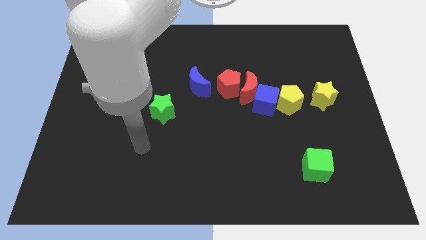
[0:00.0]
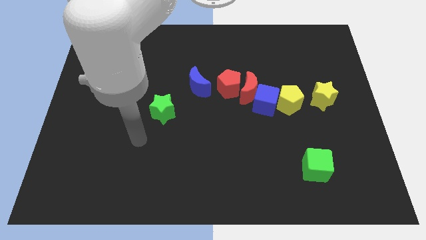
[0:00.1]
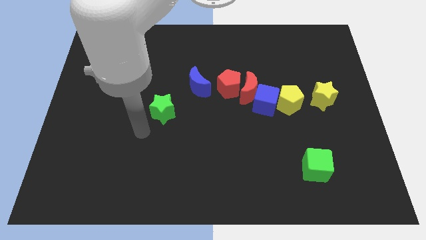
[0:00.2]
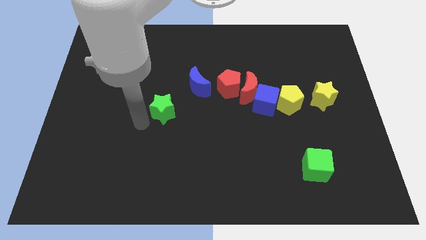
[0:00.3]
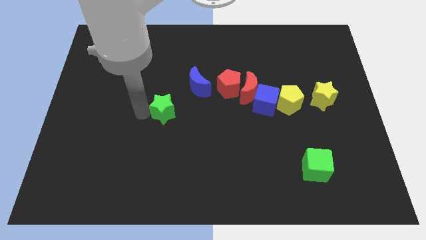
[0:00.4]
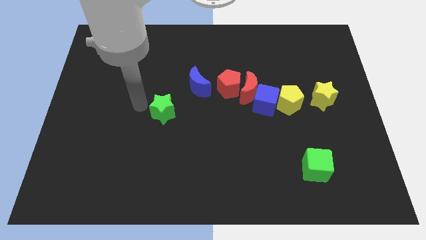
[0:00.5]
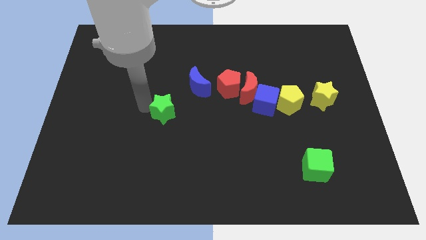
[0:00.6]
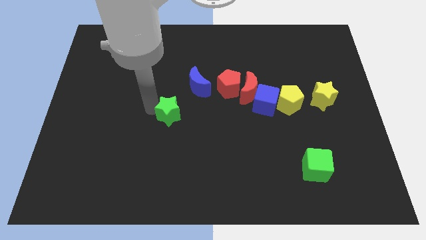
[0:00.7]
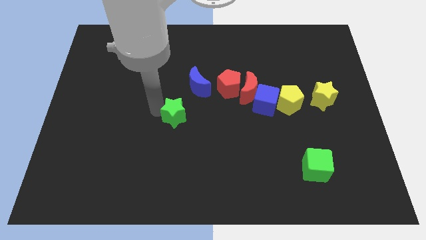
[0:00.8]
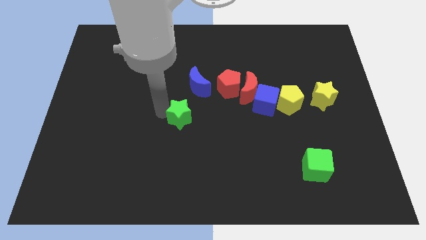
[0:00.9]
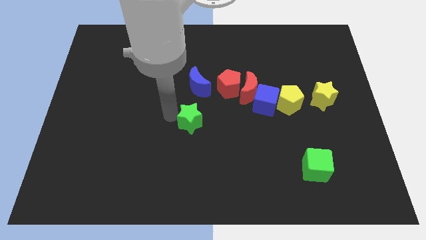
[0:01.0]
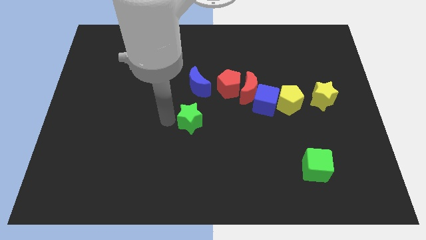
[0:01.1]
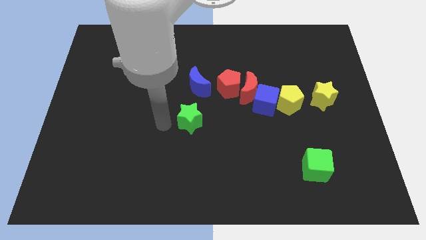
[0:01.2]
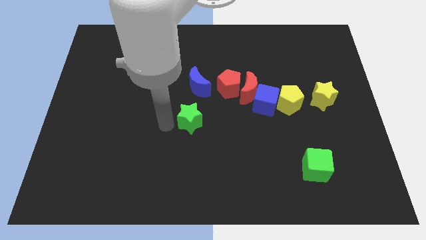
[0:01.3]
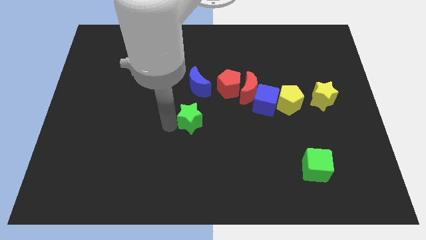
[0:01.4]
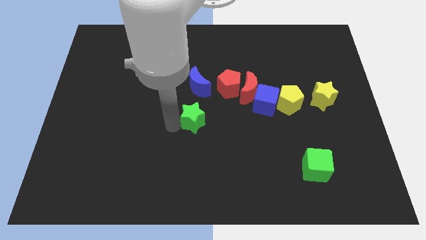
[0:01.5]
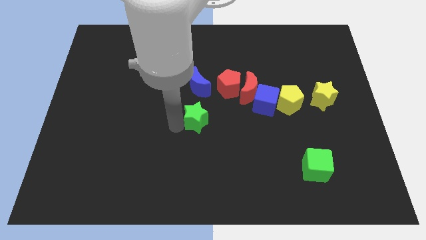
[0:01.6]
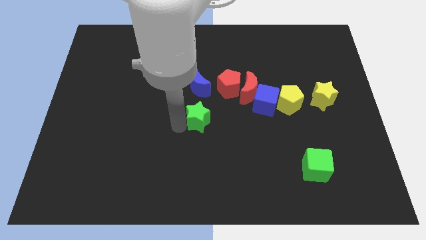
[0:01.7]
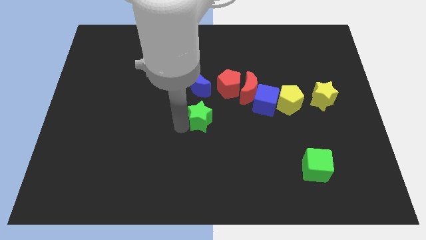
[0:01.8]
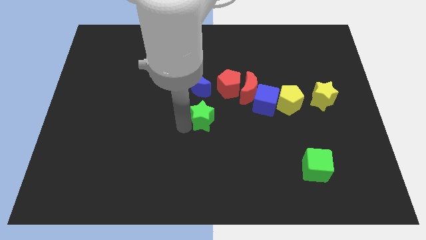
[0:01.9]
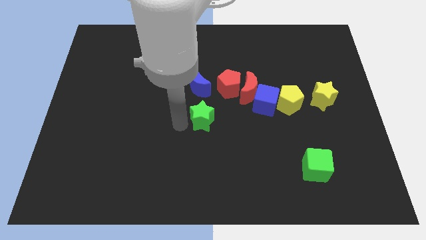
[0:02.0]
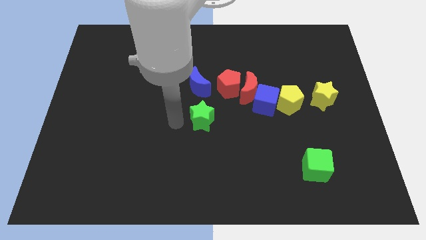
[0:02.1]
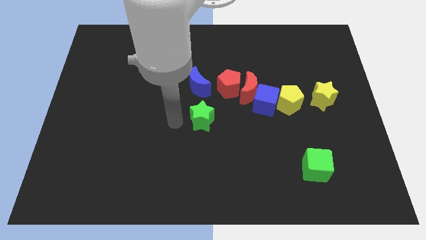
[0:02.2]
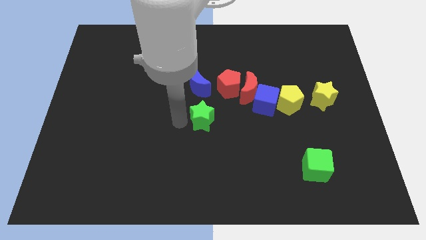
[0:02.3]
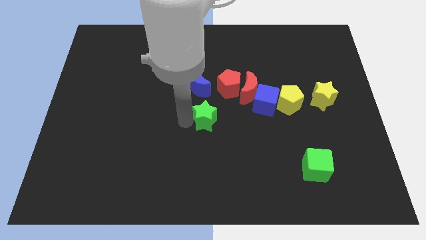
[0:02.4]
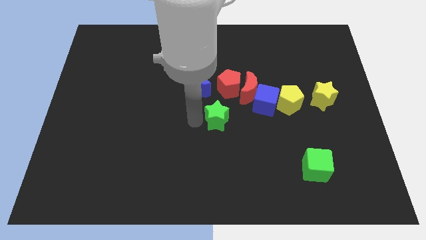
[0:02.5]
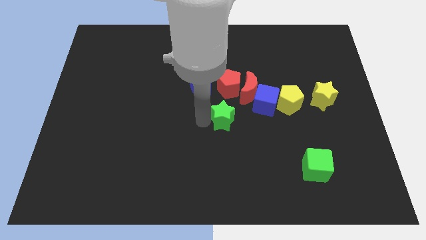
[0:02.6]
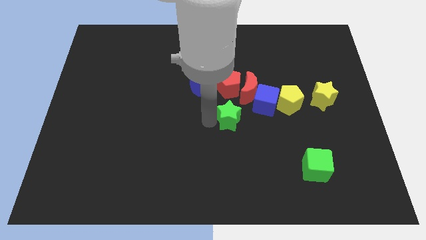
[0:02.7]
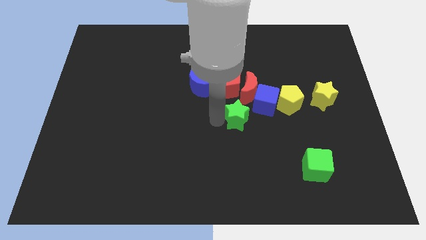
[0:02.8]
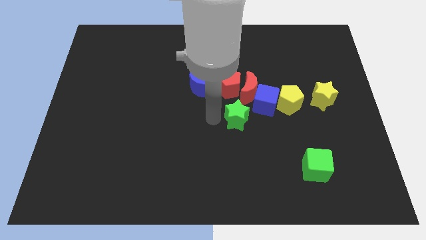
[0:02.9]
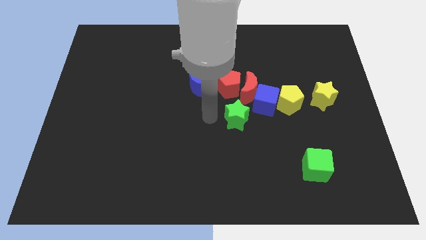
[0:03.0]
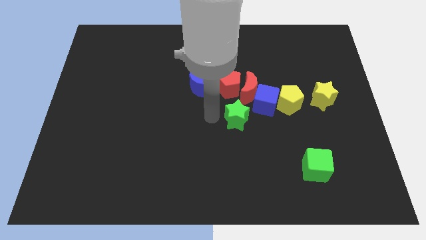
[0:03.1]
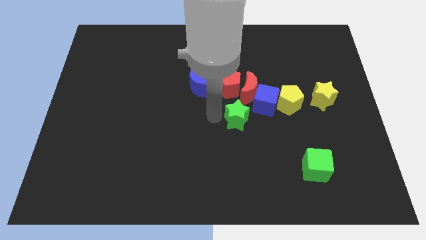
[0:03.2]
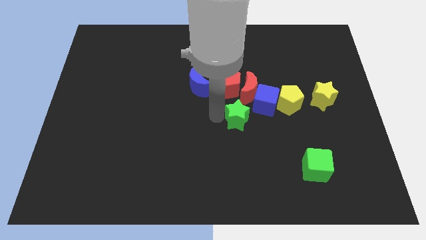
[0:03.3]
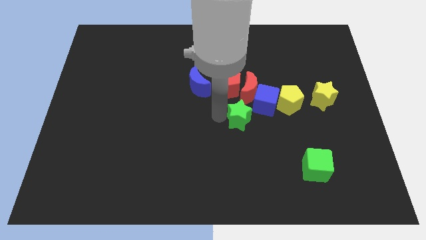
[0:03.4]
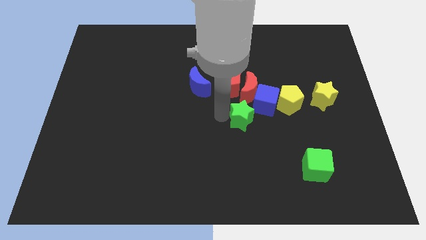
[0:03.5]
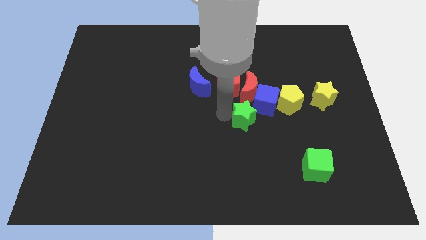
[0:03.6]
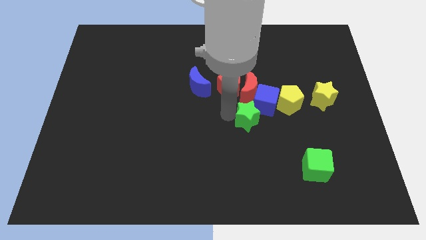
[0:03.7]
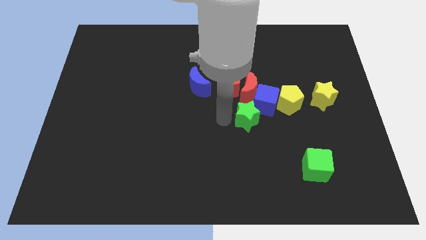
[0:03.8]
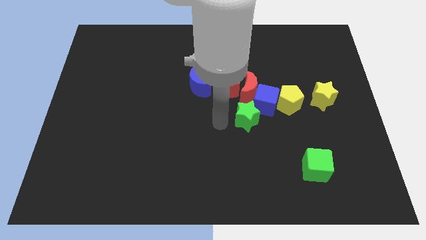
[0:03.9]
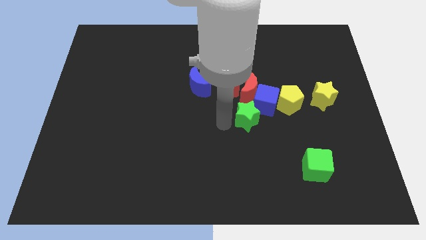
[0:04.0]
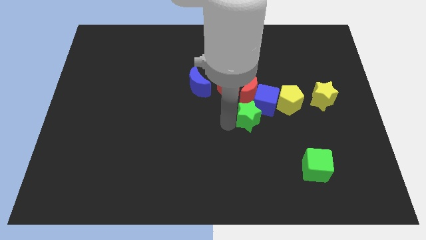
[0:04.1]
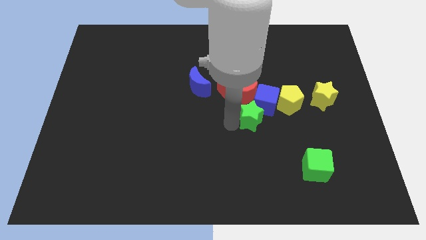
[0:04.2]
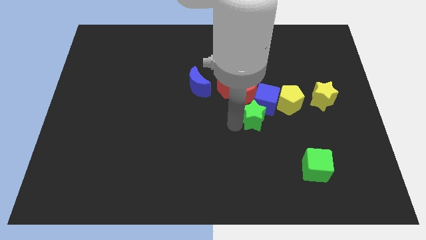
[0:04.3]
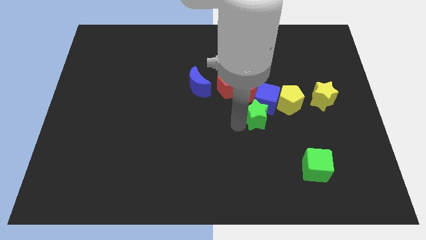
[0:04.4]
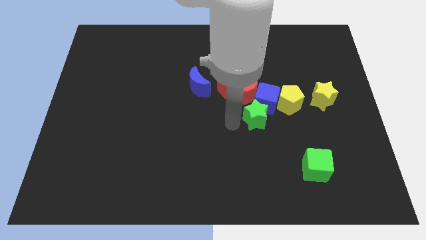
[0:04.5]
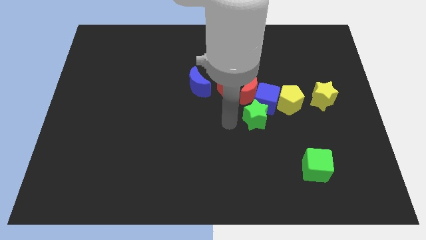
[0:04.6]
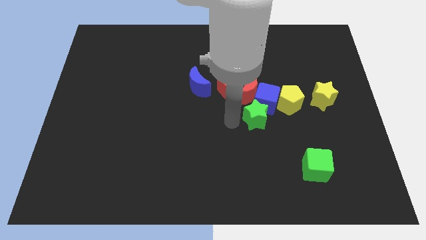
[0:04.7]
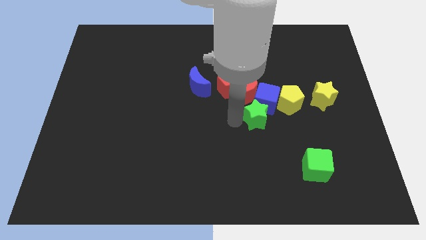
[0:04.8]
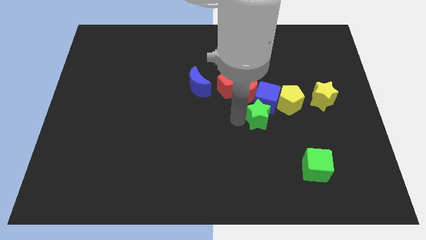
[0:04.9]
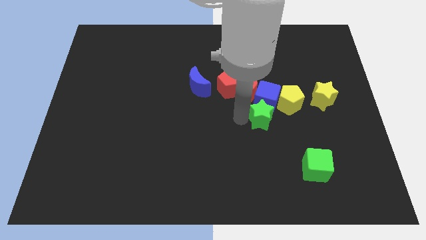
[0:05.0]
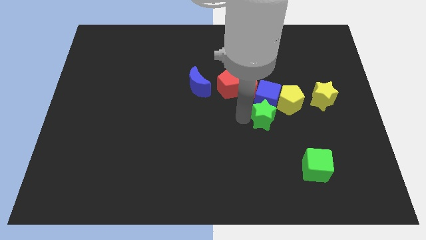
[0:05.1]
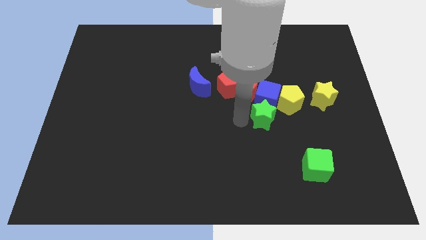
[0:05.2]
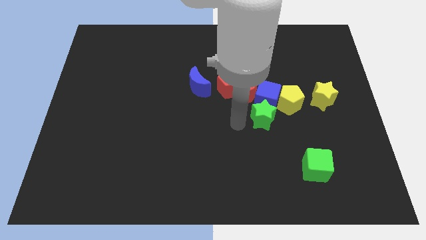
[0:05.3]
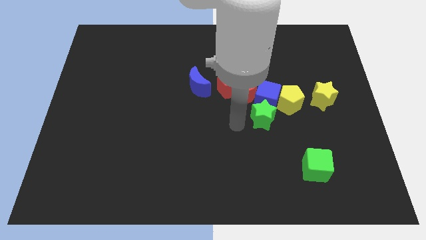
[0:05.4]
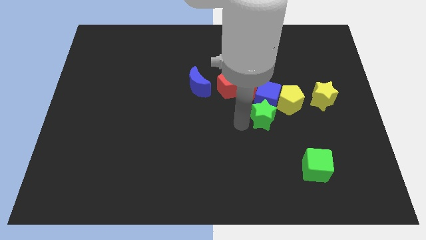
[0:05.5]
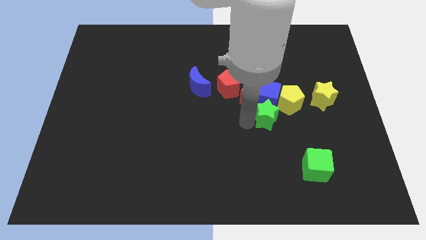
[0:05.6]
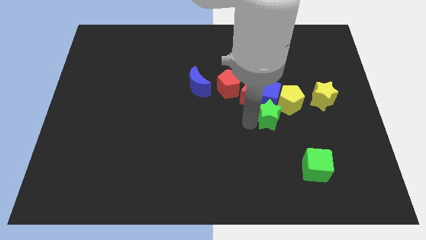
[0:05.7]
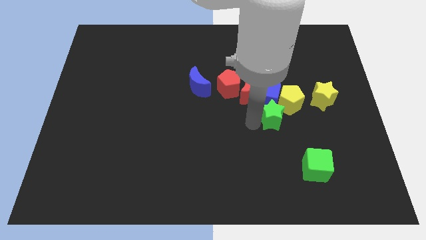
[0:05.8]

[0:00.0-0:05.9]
put the green star towards the yellow pentagon

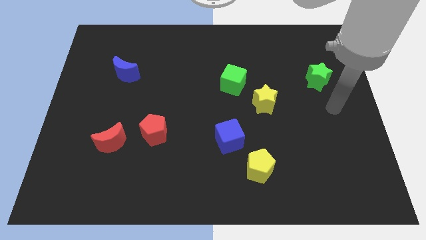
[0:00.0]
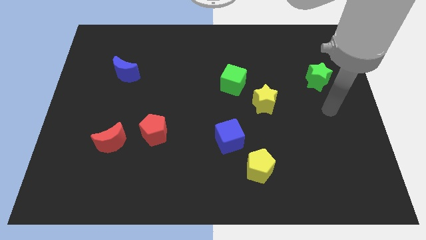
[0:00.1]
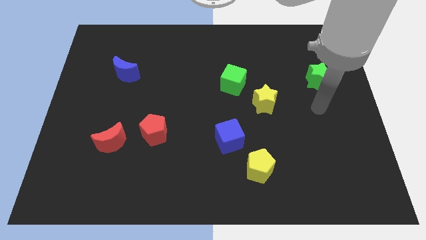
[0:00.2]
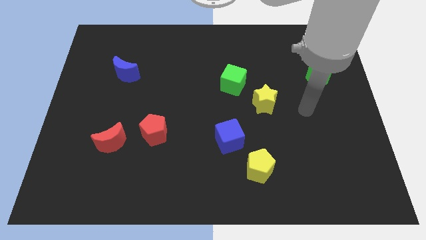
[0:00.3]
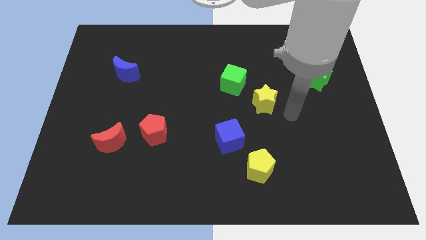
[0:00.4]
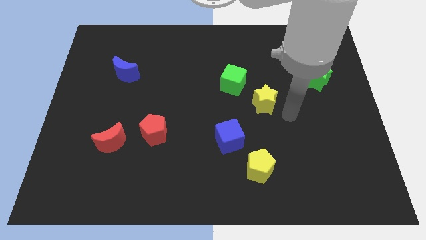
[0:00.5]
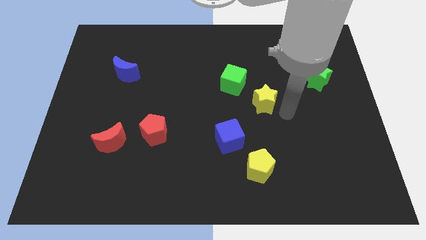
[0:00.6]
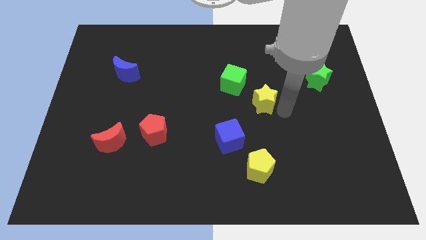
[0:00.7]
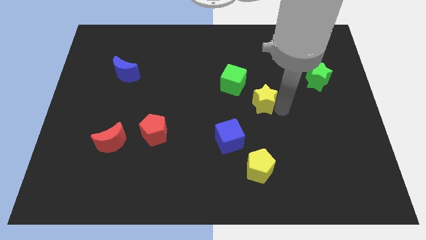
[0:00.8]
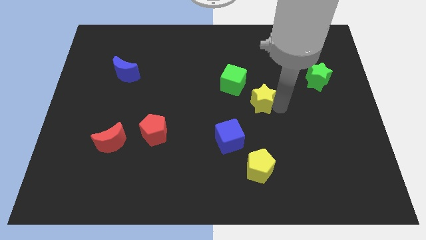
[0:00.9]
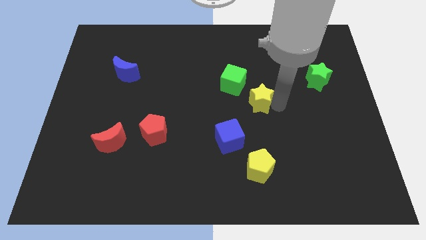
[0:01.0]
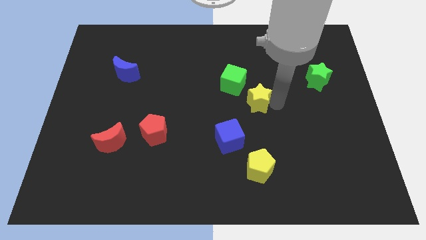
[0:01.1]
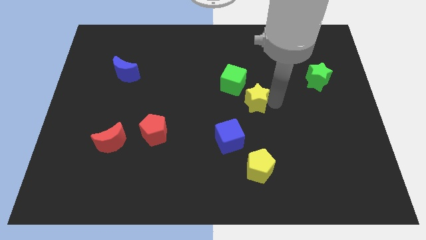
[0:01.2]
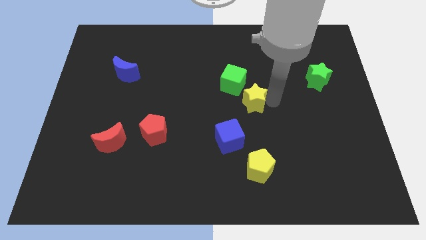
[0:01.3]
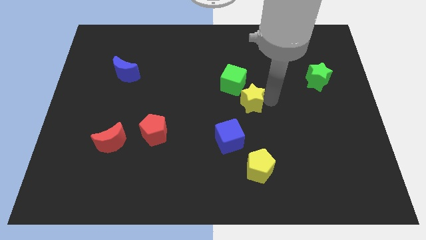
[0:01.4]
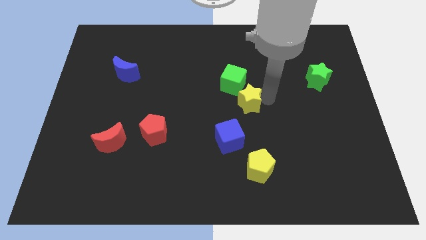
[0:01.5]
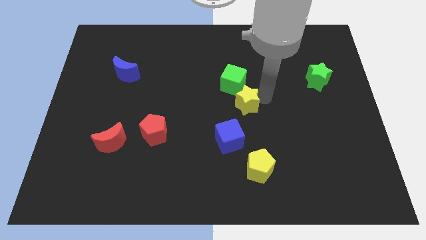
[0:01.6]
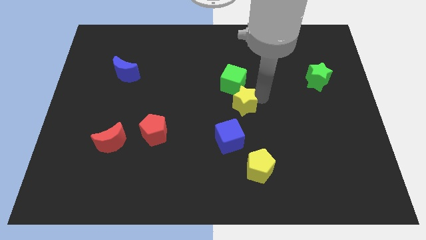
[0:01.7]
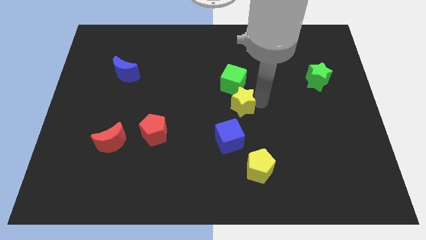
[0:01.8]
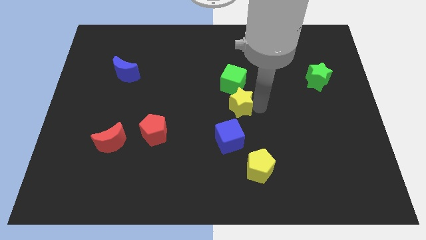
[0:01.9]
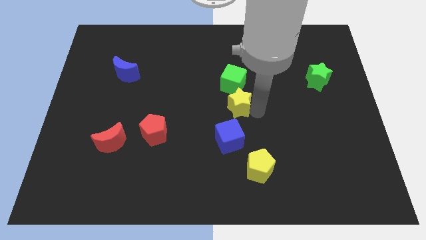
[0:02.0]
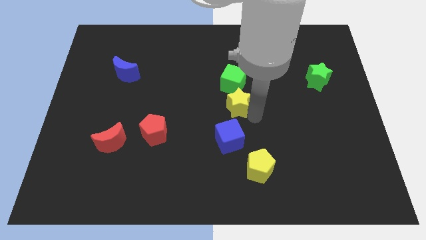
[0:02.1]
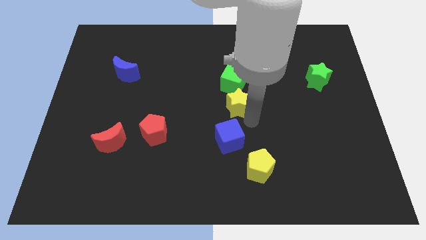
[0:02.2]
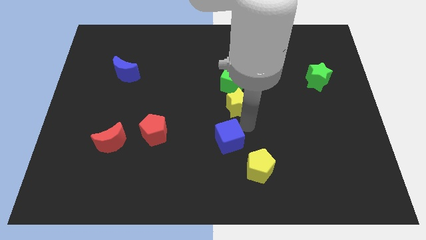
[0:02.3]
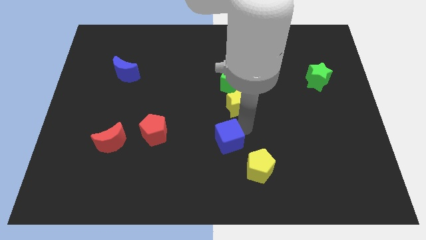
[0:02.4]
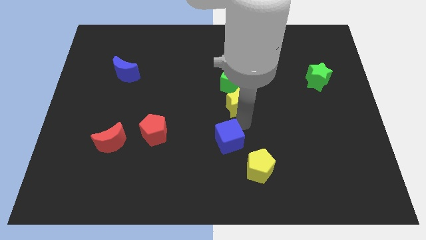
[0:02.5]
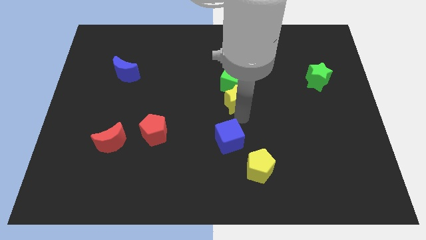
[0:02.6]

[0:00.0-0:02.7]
push the yellow star close to the green cube
